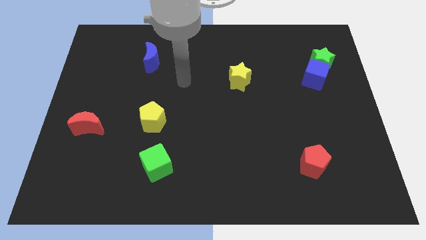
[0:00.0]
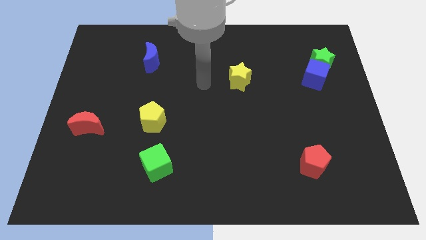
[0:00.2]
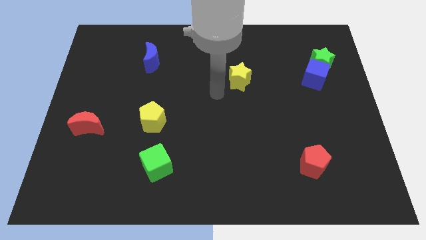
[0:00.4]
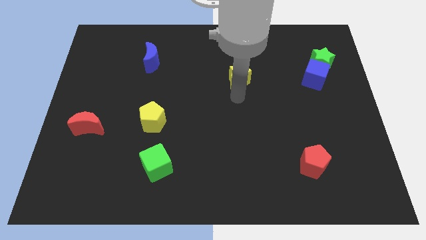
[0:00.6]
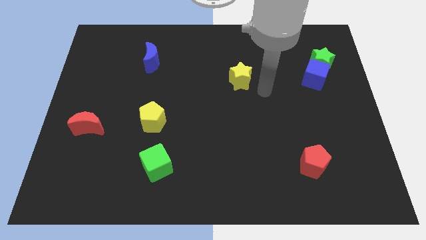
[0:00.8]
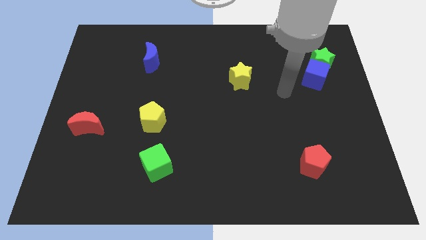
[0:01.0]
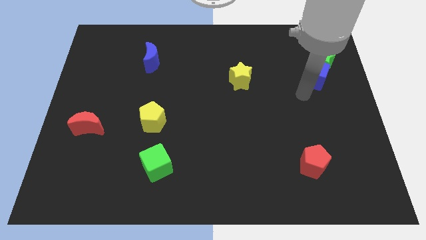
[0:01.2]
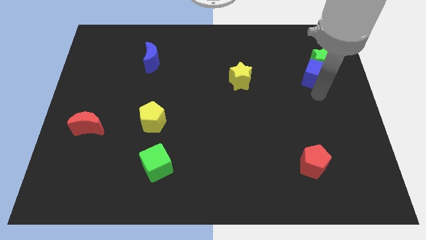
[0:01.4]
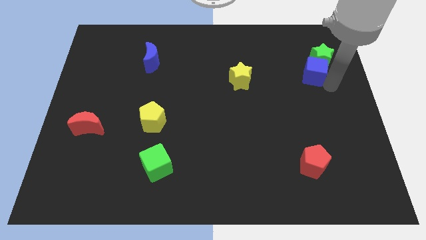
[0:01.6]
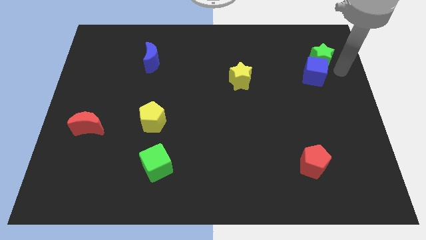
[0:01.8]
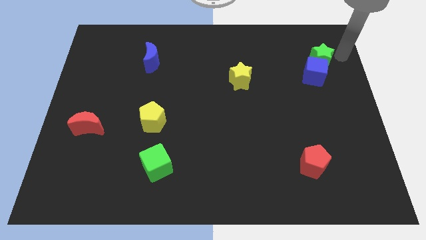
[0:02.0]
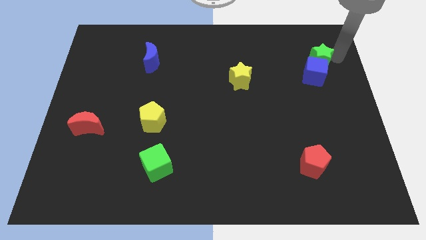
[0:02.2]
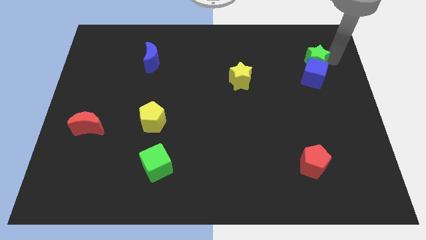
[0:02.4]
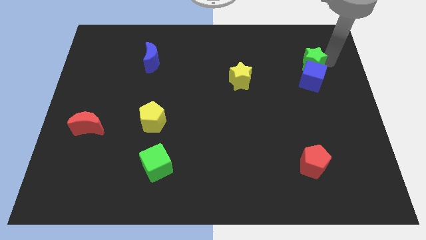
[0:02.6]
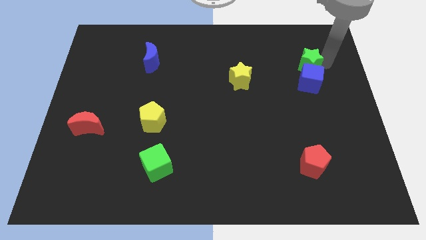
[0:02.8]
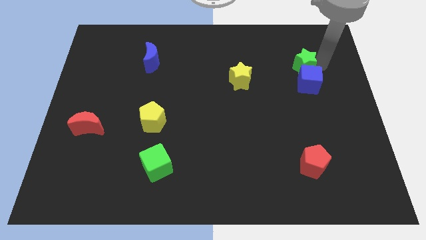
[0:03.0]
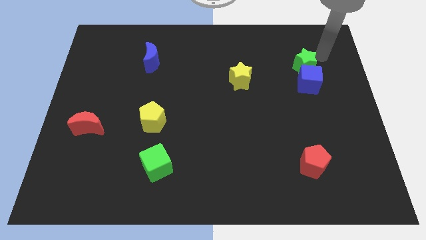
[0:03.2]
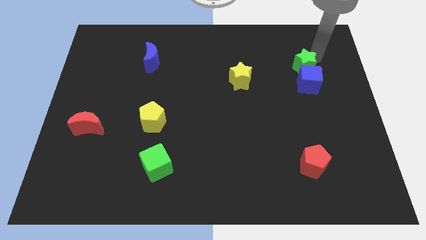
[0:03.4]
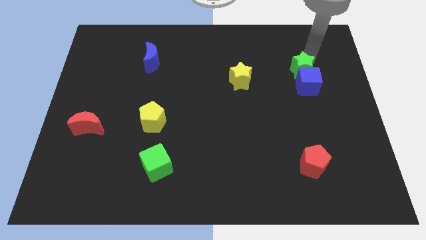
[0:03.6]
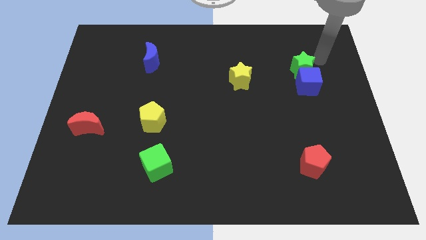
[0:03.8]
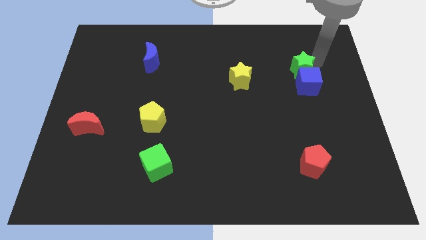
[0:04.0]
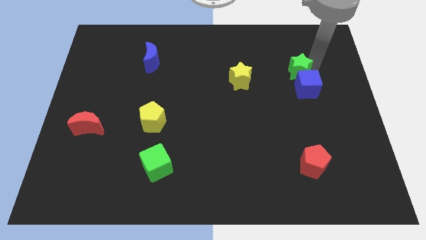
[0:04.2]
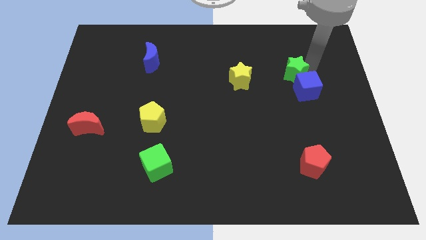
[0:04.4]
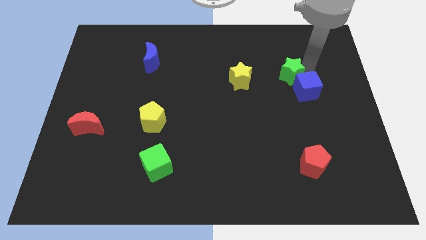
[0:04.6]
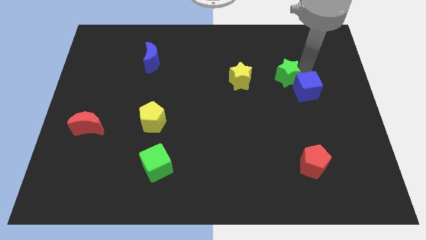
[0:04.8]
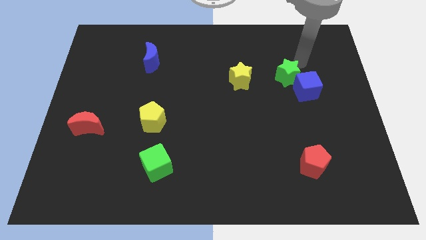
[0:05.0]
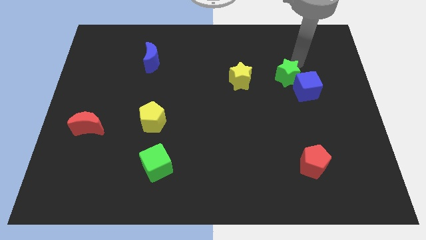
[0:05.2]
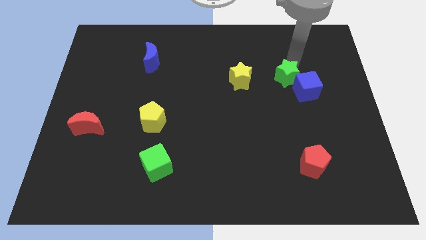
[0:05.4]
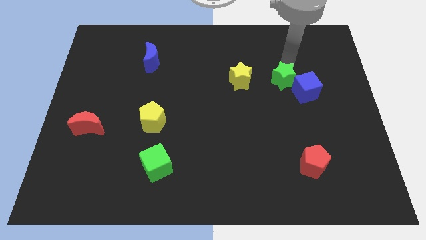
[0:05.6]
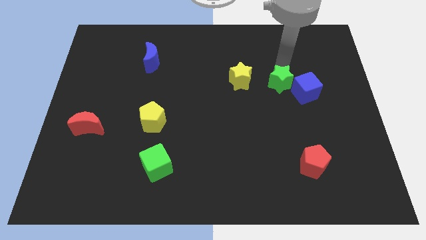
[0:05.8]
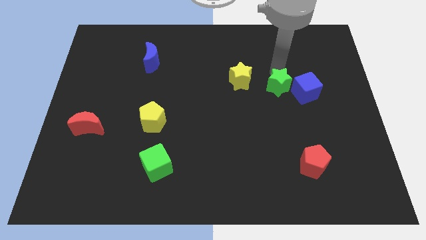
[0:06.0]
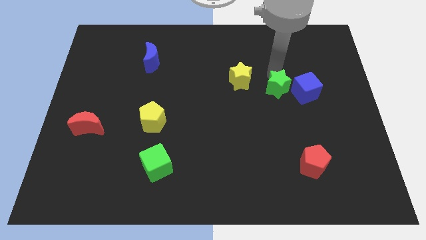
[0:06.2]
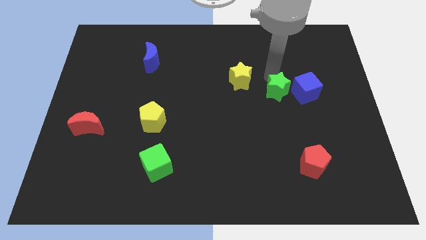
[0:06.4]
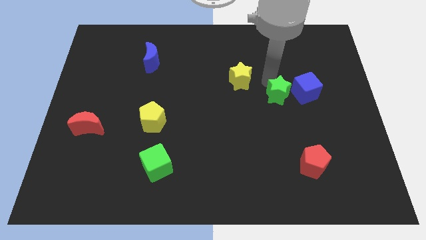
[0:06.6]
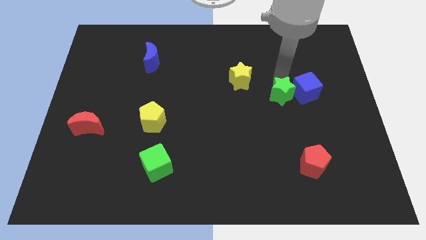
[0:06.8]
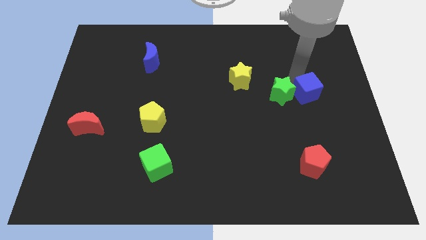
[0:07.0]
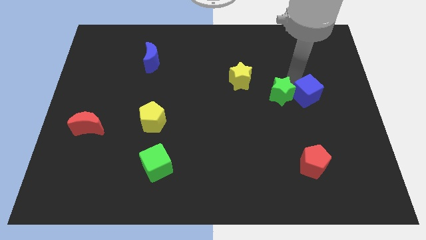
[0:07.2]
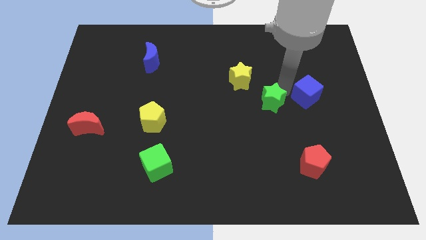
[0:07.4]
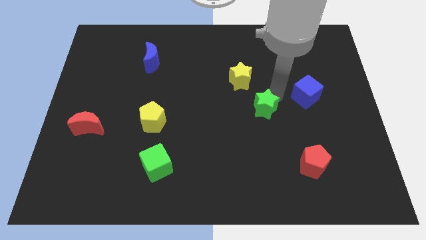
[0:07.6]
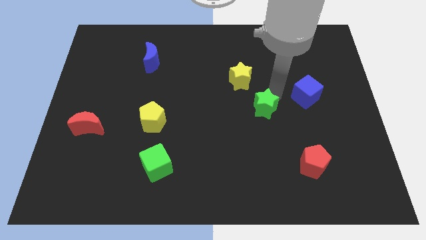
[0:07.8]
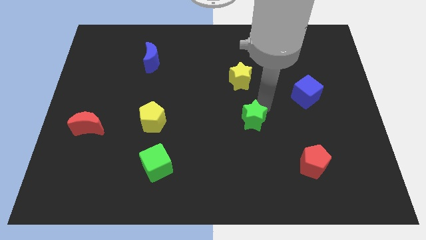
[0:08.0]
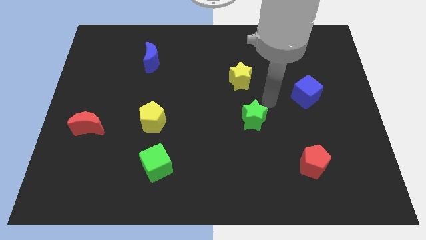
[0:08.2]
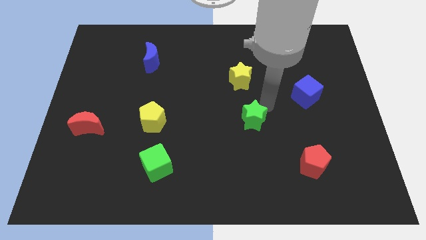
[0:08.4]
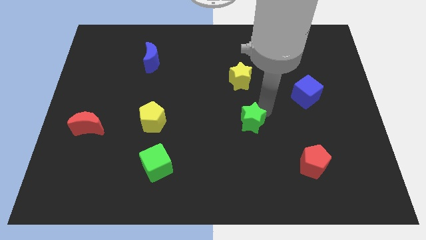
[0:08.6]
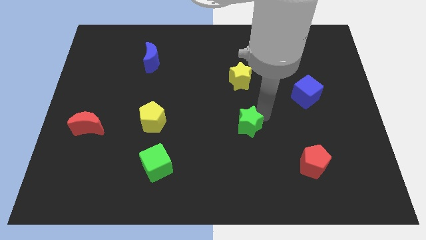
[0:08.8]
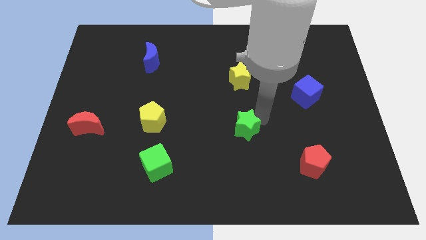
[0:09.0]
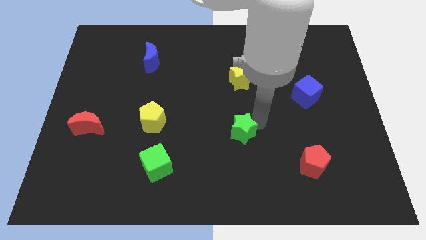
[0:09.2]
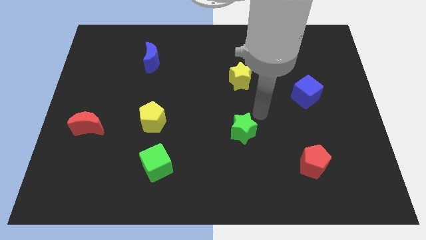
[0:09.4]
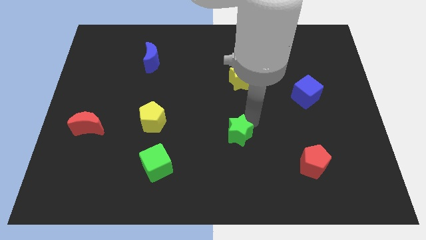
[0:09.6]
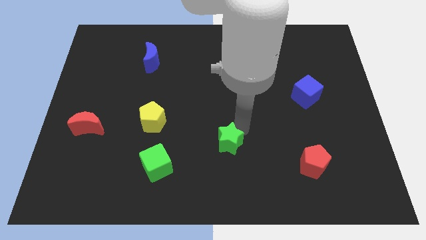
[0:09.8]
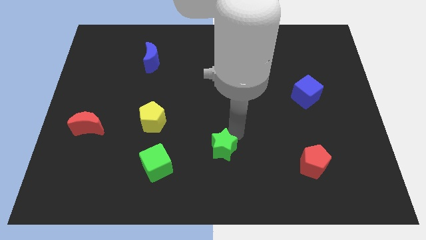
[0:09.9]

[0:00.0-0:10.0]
push the green star to the right of the green cube
